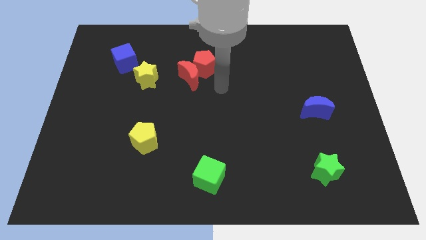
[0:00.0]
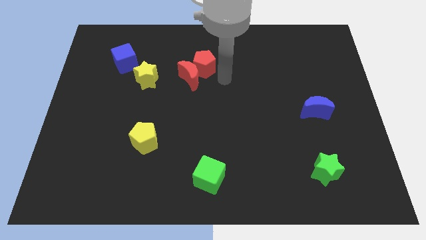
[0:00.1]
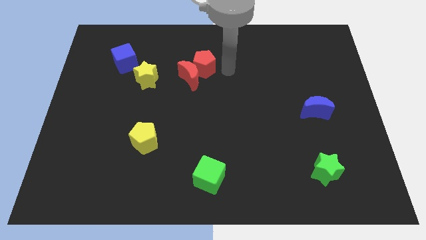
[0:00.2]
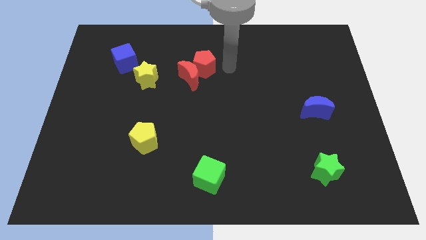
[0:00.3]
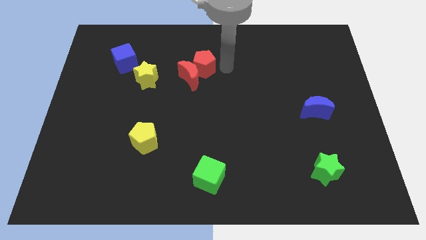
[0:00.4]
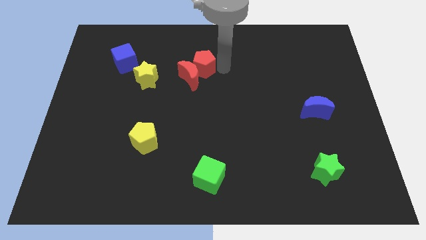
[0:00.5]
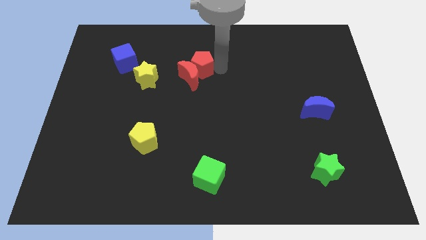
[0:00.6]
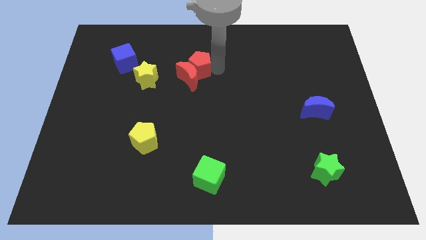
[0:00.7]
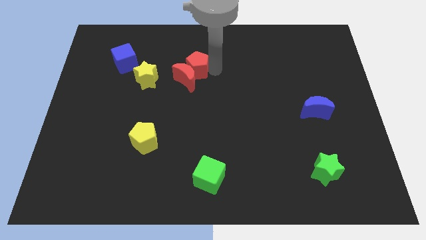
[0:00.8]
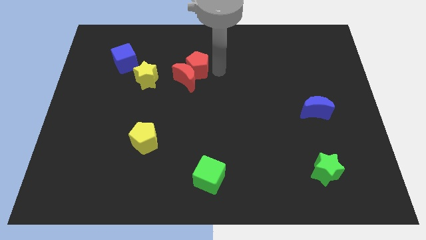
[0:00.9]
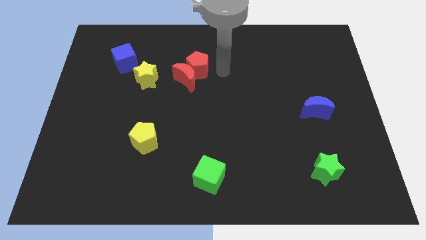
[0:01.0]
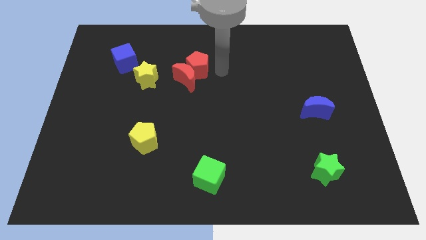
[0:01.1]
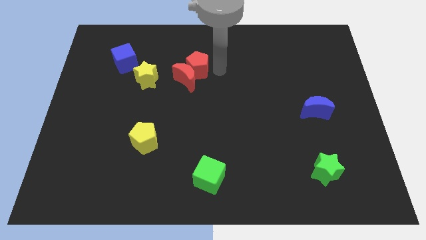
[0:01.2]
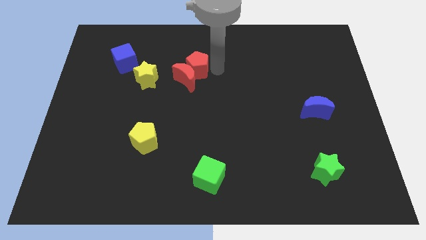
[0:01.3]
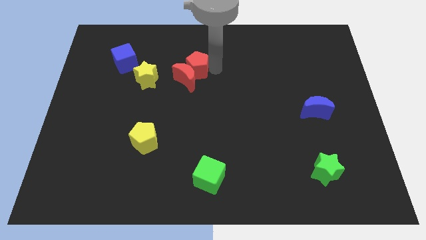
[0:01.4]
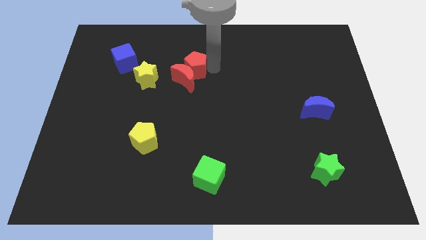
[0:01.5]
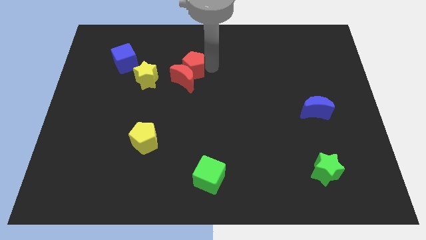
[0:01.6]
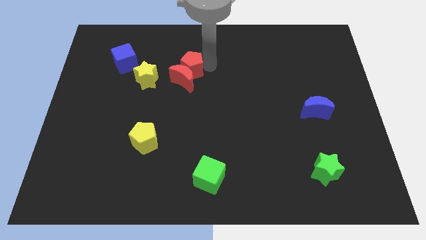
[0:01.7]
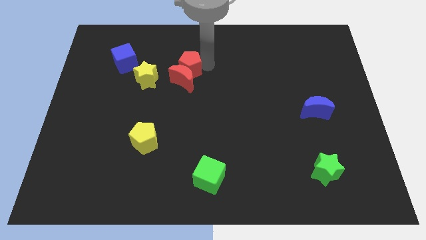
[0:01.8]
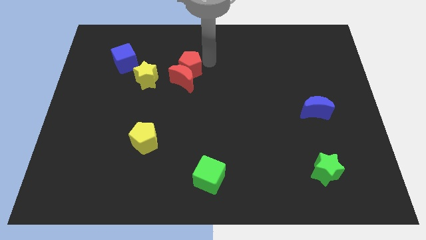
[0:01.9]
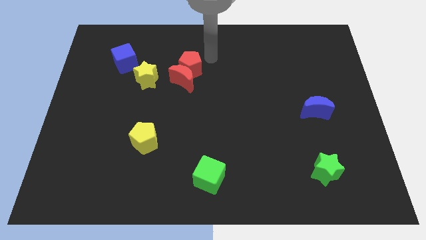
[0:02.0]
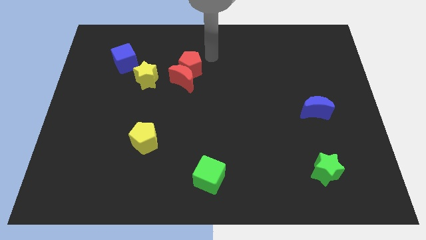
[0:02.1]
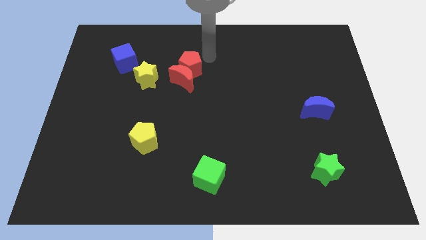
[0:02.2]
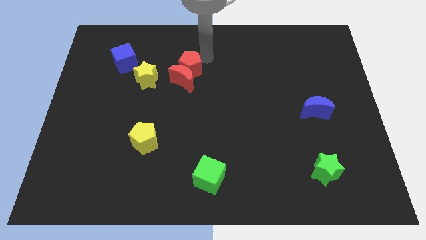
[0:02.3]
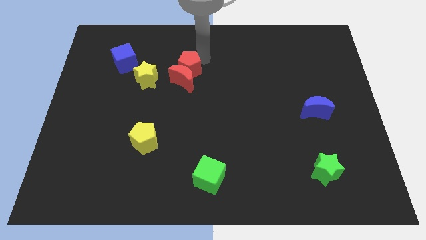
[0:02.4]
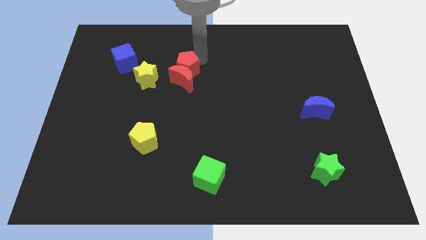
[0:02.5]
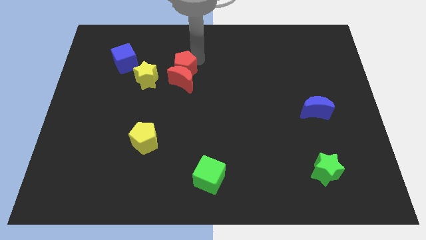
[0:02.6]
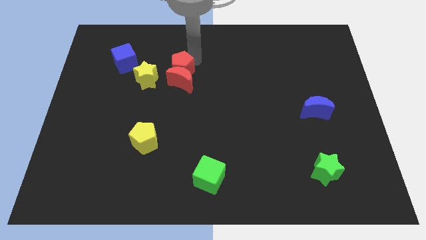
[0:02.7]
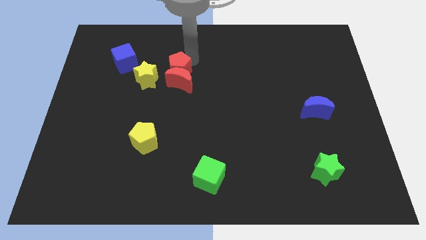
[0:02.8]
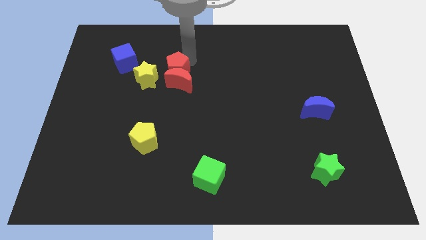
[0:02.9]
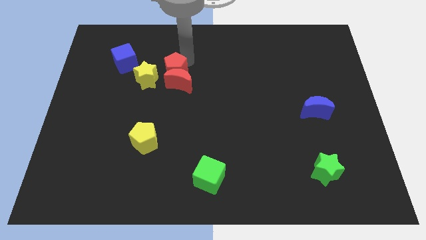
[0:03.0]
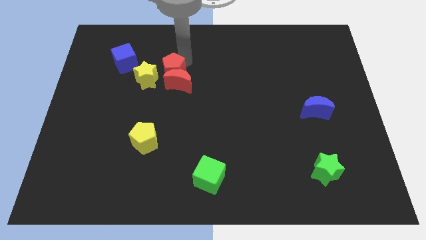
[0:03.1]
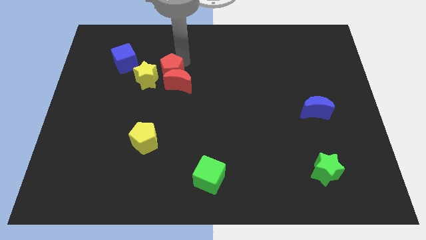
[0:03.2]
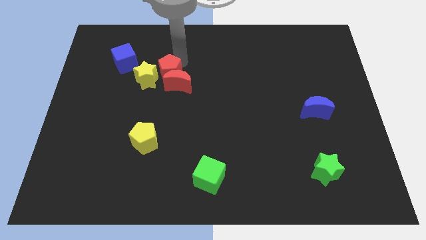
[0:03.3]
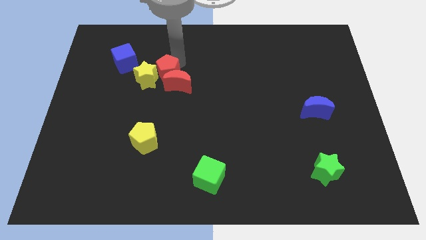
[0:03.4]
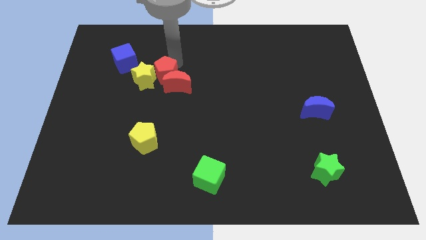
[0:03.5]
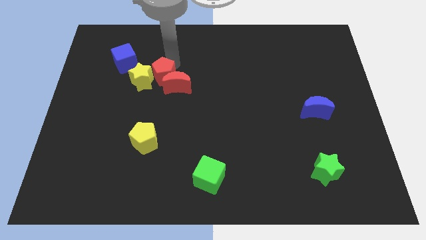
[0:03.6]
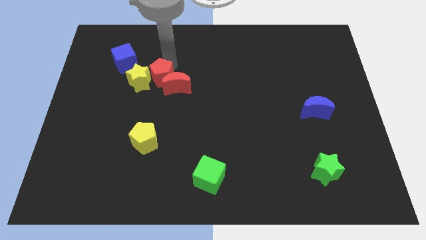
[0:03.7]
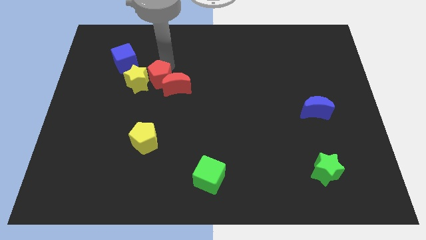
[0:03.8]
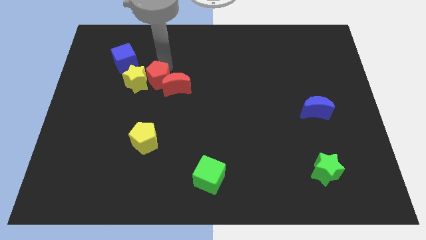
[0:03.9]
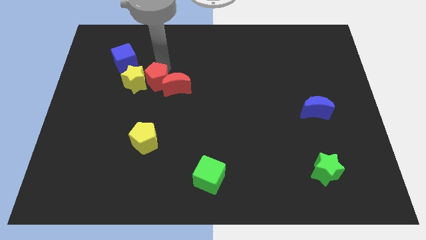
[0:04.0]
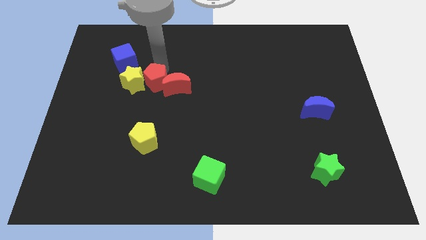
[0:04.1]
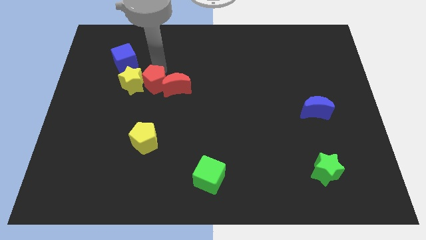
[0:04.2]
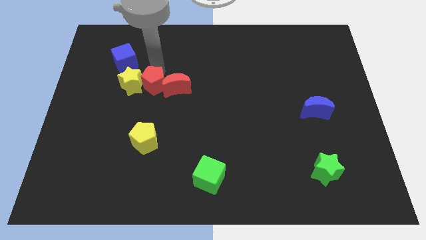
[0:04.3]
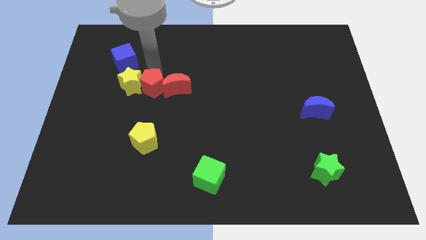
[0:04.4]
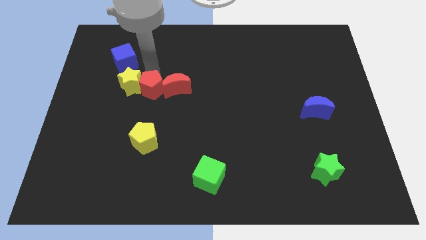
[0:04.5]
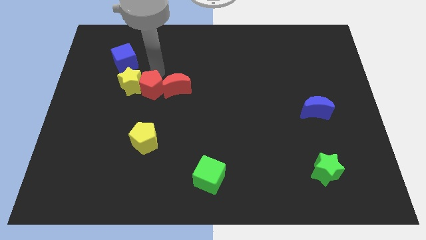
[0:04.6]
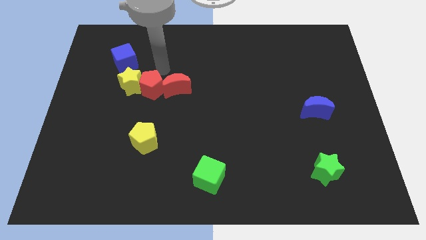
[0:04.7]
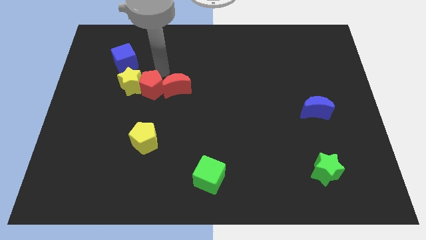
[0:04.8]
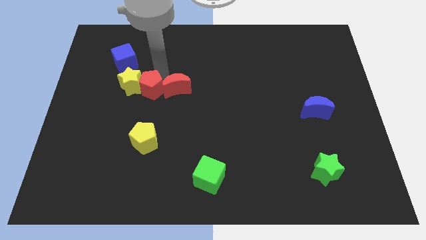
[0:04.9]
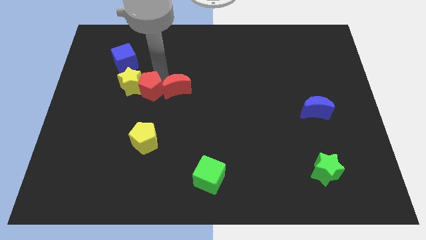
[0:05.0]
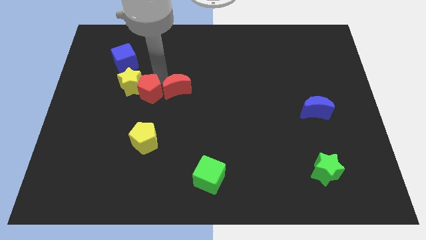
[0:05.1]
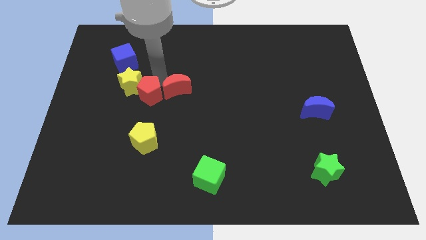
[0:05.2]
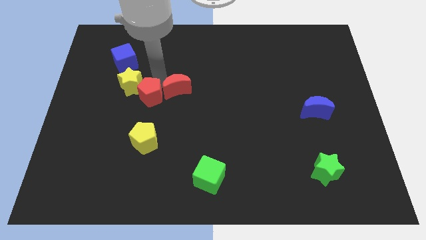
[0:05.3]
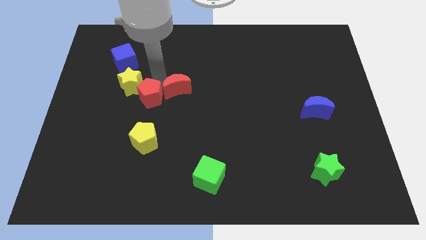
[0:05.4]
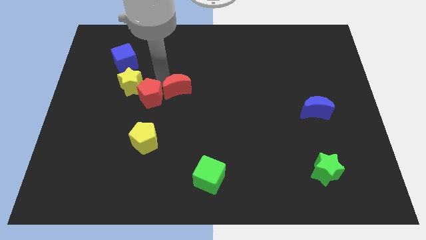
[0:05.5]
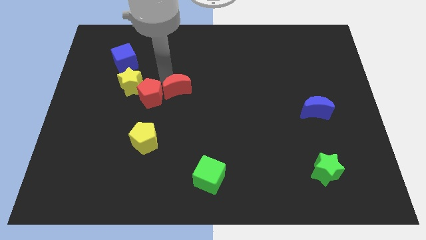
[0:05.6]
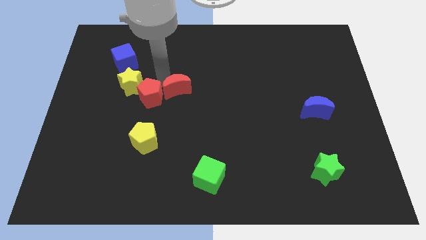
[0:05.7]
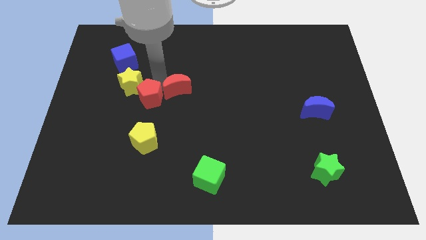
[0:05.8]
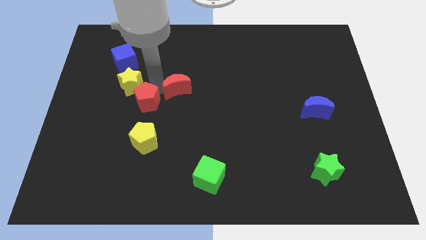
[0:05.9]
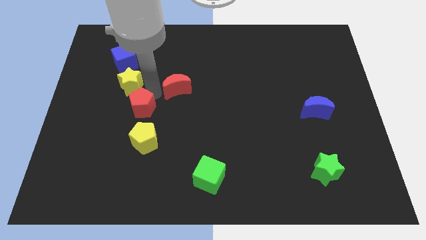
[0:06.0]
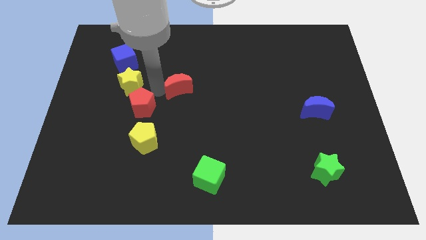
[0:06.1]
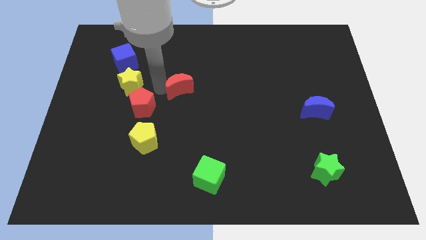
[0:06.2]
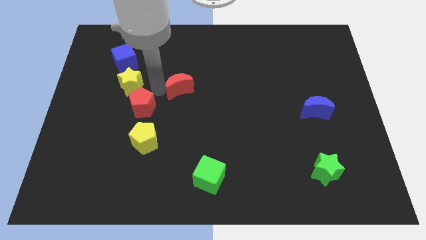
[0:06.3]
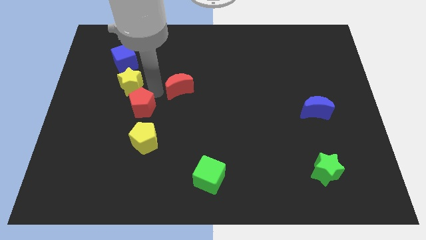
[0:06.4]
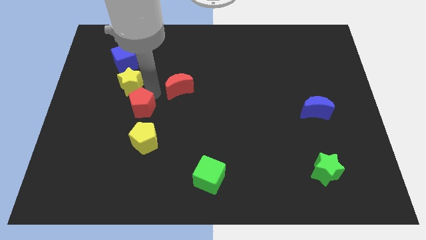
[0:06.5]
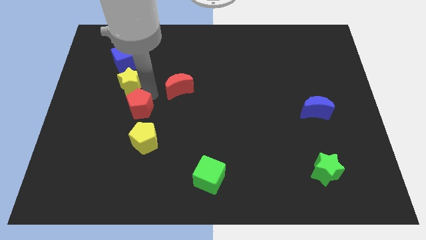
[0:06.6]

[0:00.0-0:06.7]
slide the red pentagon to the top left of the yellow pentagon

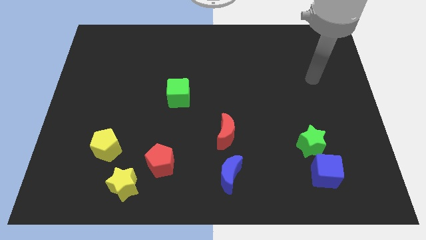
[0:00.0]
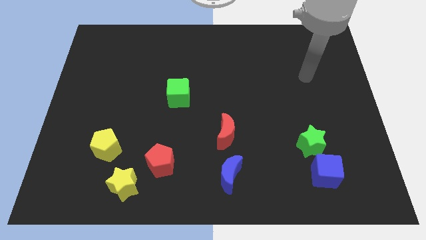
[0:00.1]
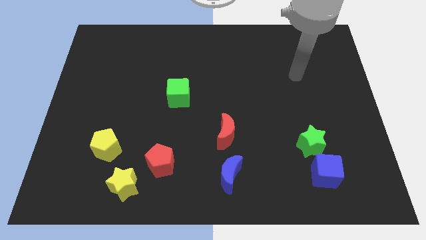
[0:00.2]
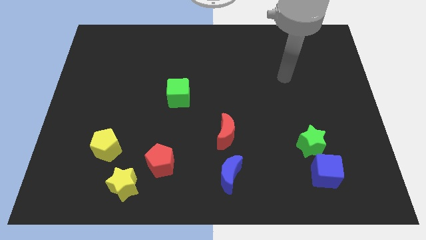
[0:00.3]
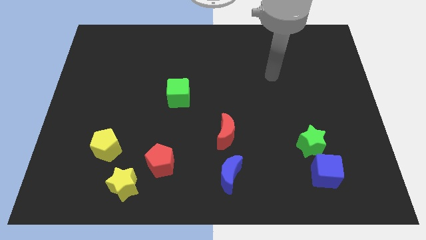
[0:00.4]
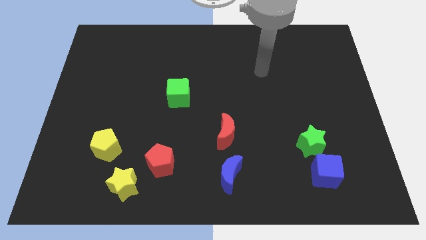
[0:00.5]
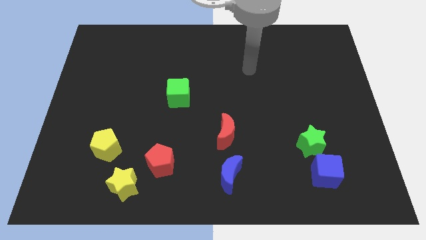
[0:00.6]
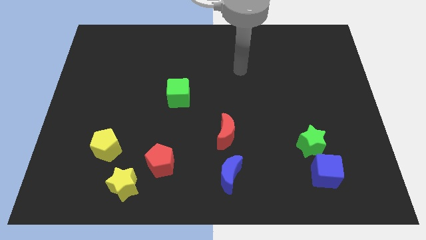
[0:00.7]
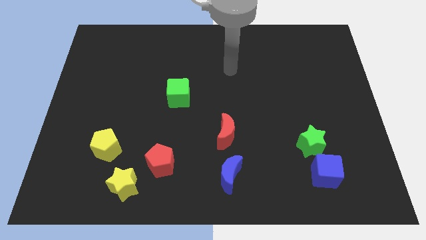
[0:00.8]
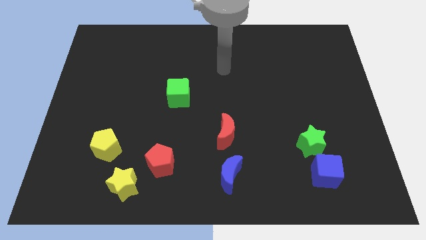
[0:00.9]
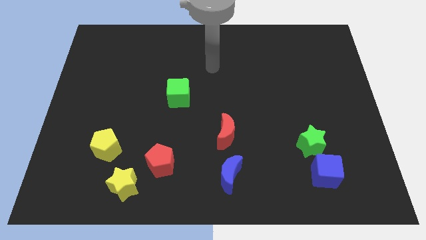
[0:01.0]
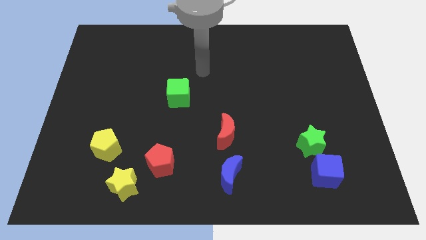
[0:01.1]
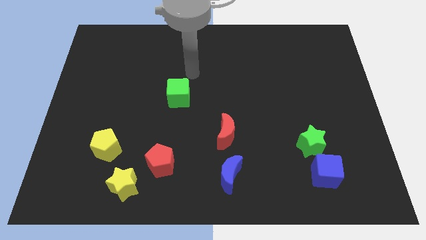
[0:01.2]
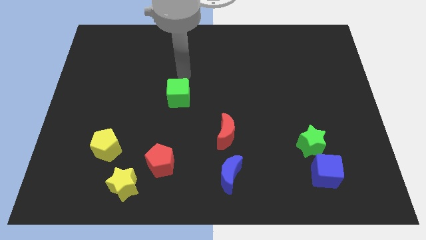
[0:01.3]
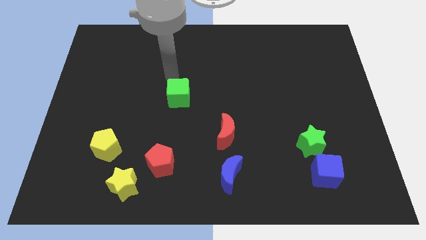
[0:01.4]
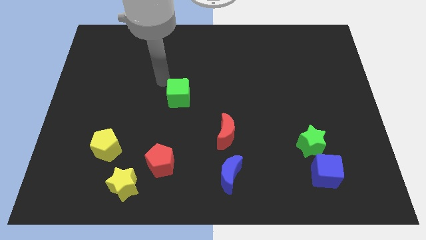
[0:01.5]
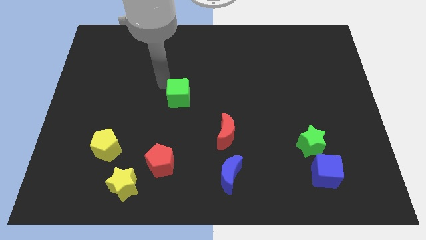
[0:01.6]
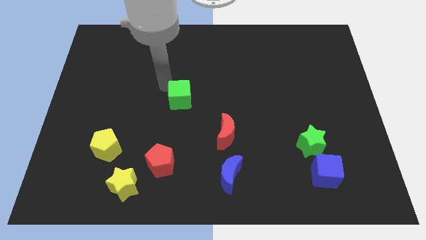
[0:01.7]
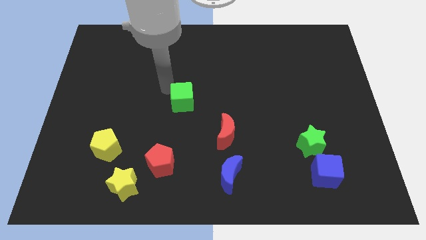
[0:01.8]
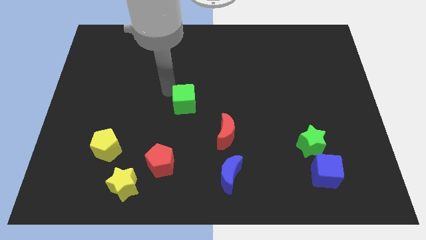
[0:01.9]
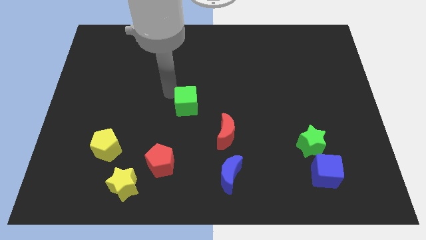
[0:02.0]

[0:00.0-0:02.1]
push the green cube to the top left of the red moon
